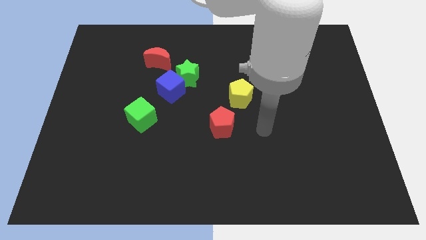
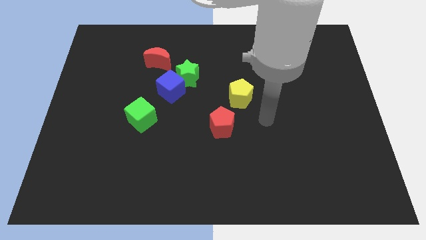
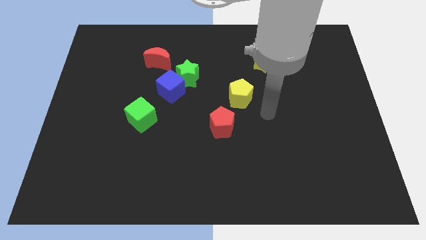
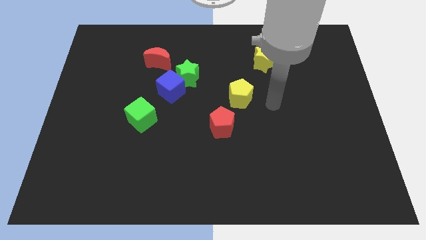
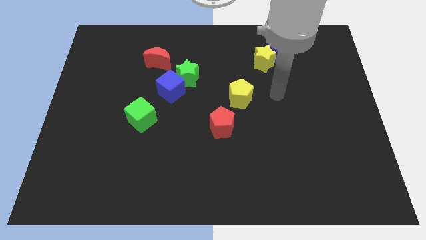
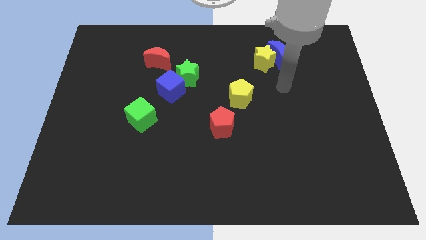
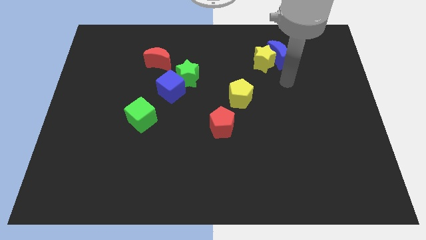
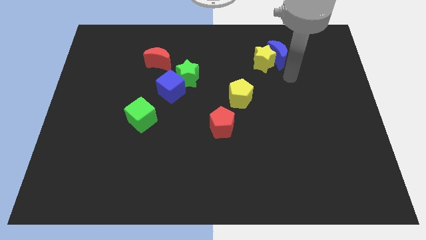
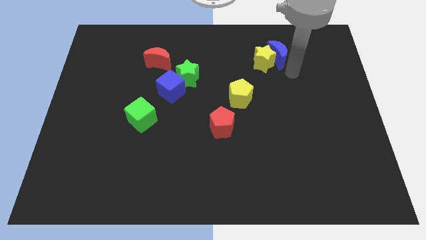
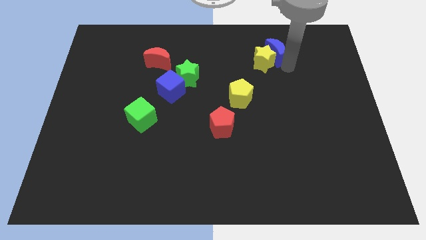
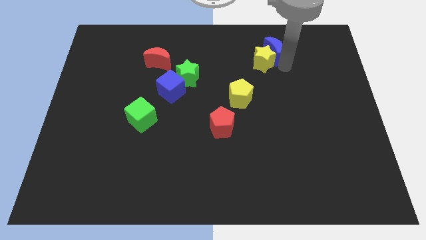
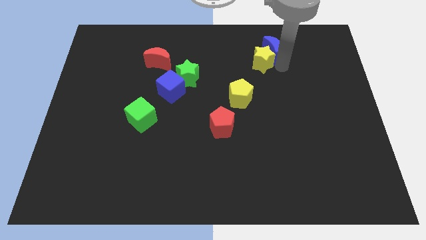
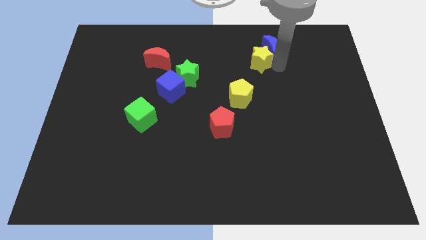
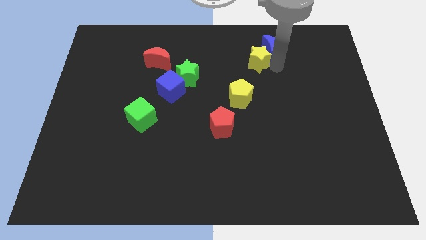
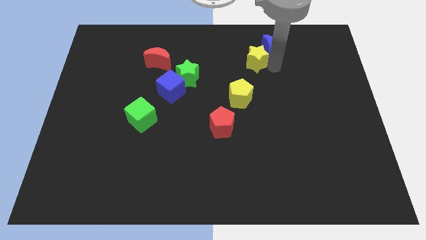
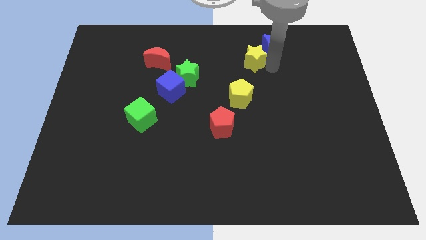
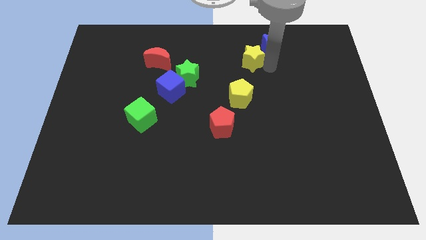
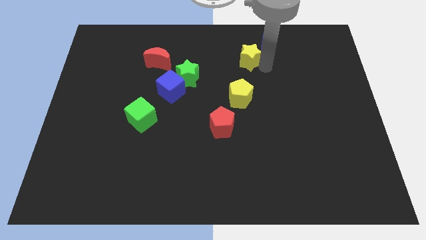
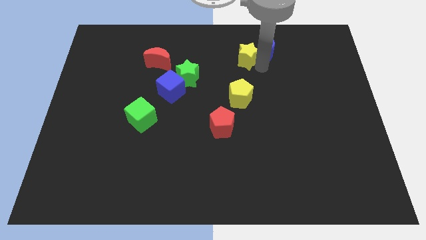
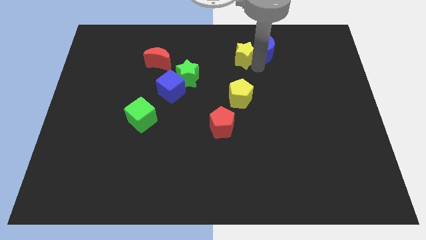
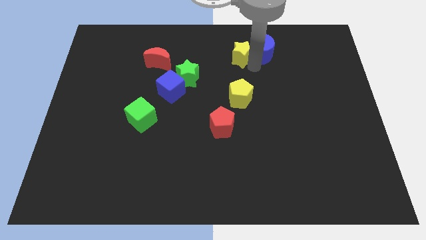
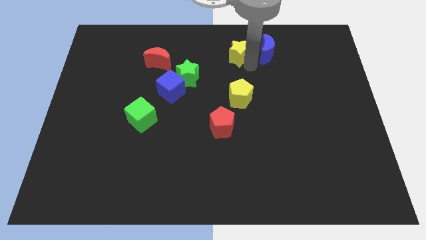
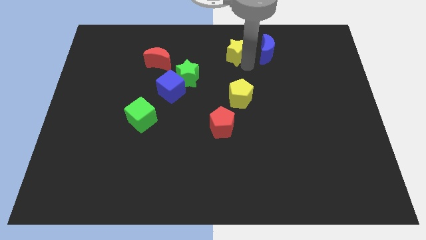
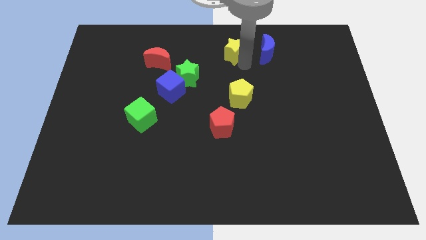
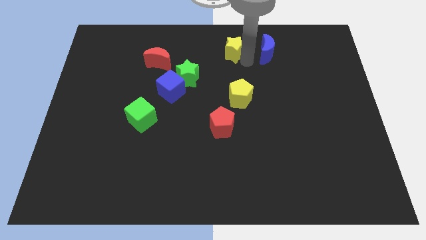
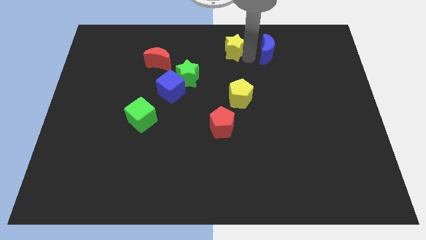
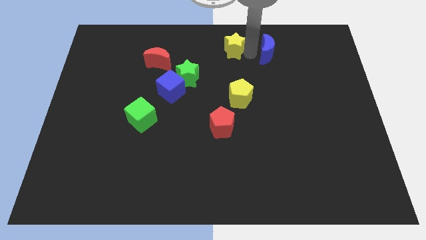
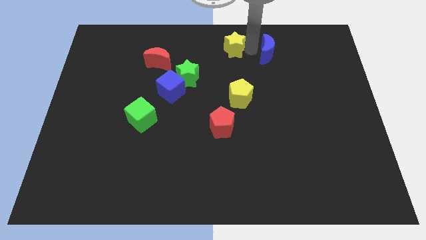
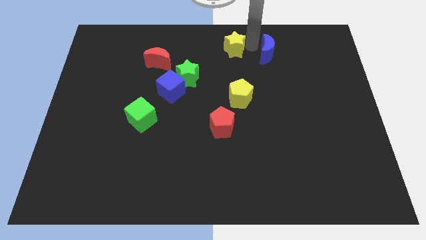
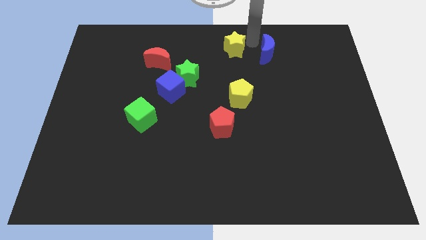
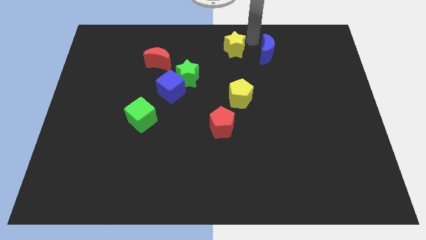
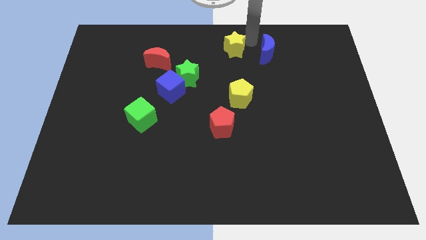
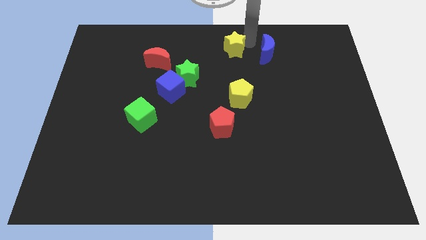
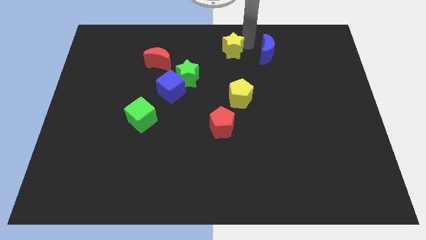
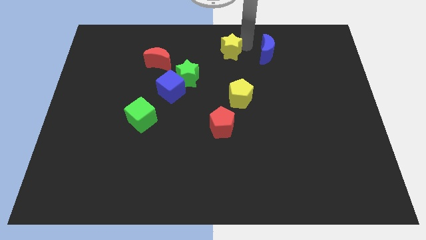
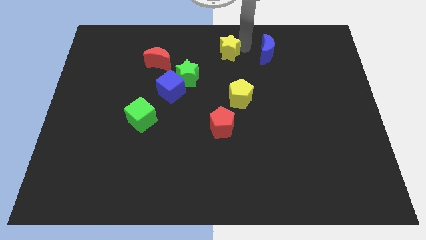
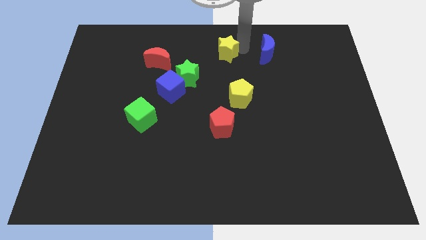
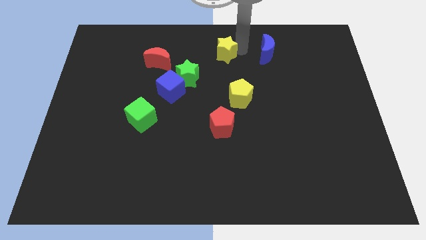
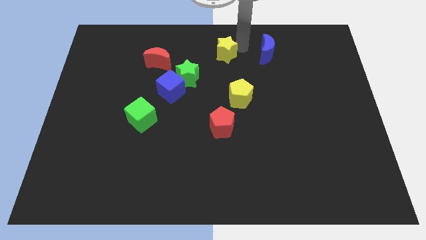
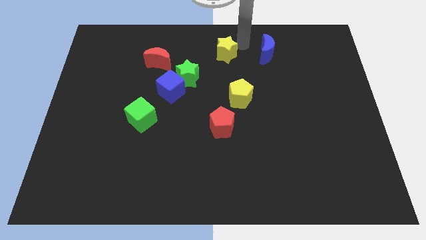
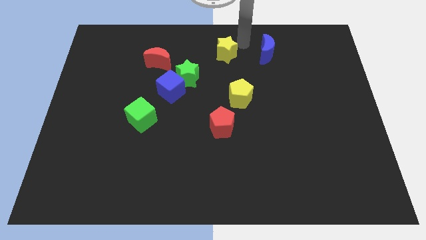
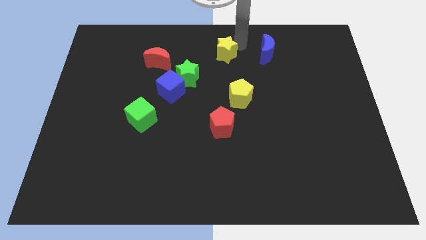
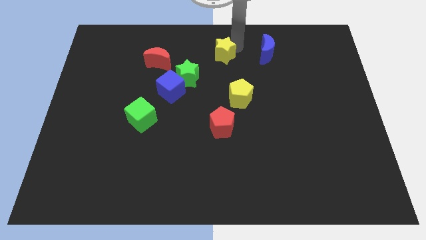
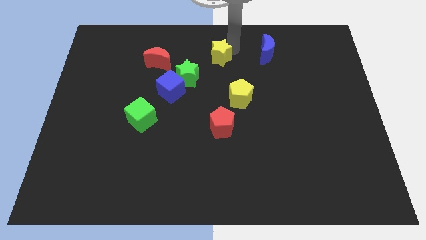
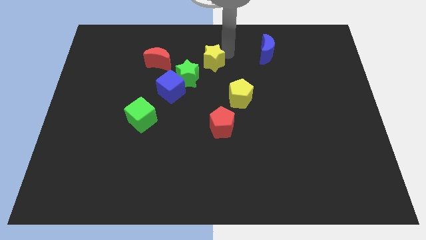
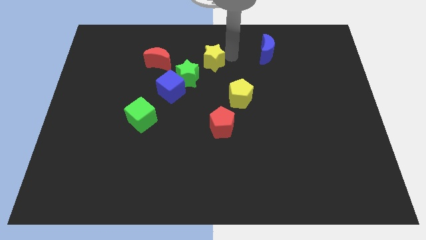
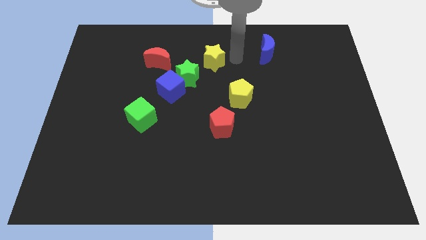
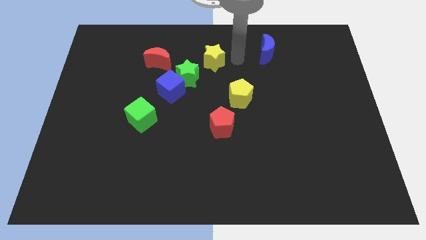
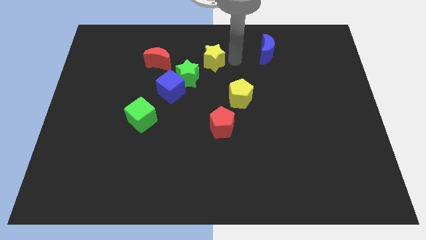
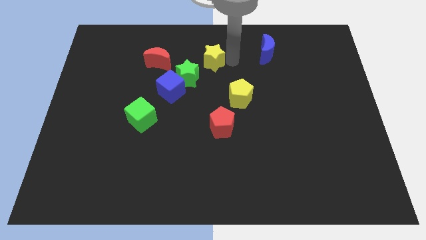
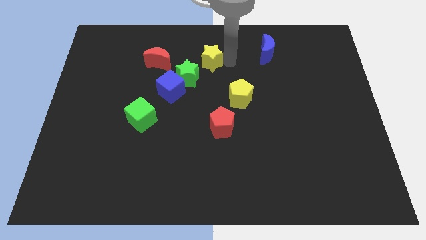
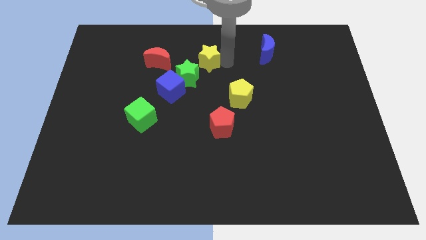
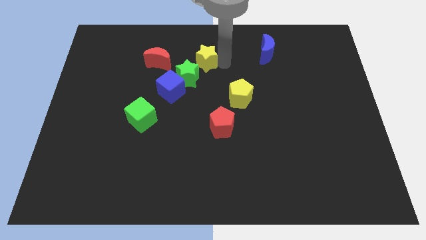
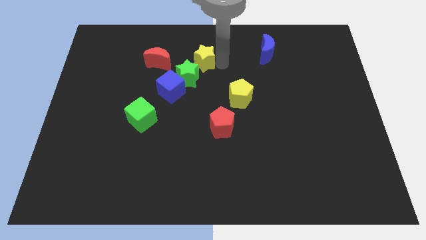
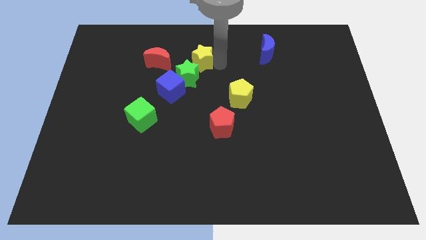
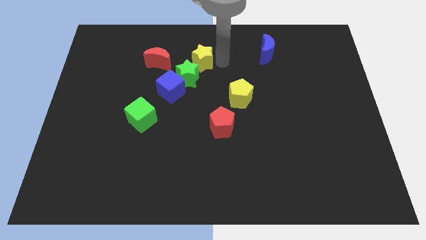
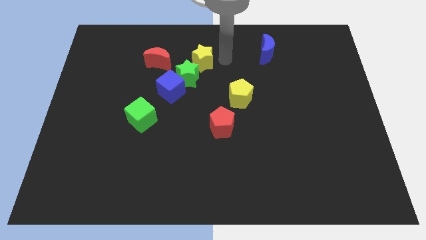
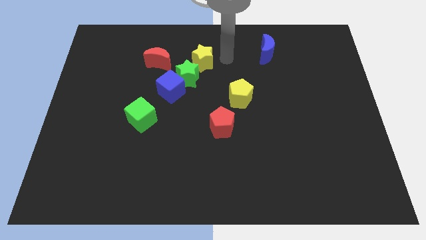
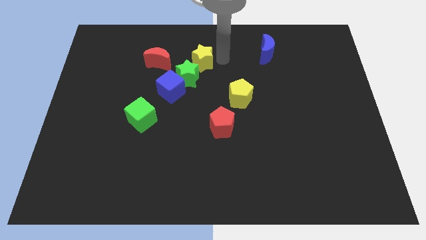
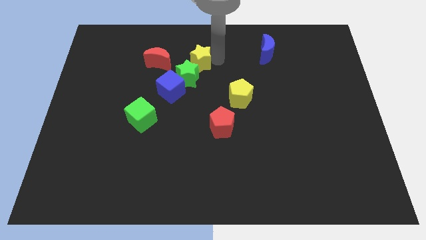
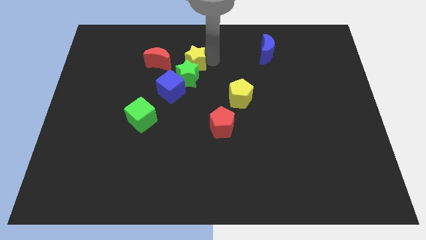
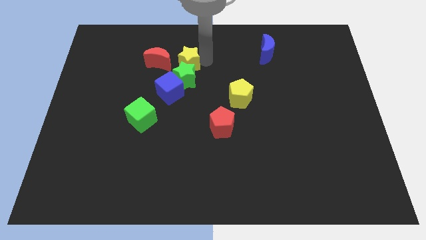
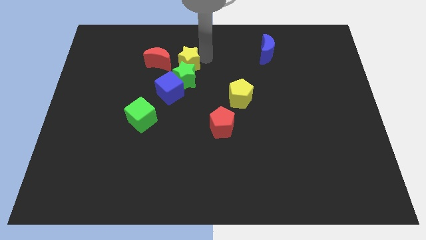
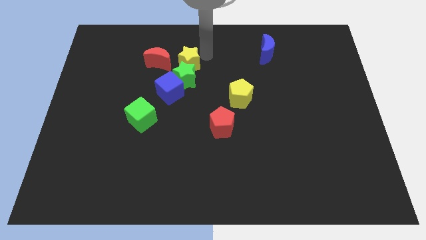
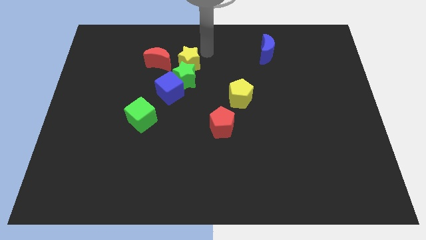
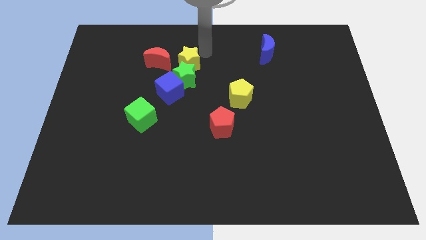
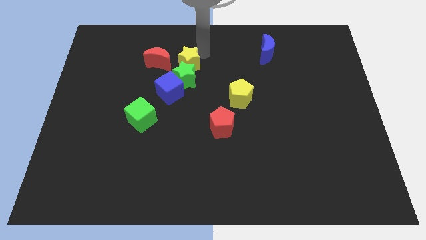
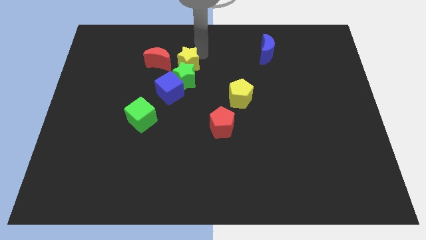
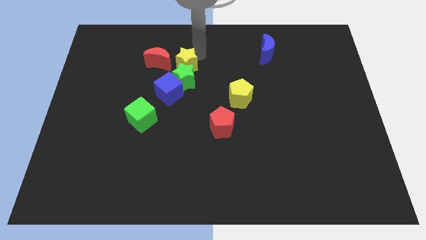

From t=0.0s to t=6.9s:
move the yellow star to the left

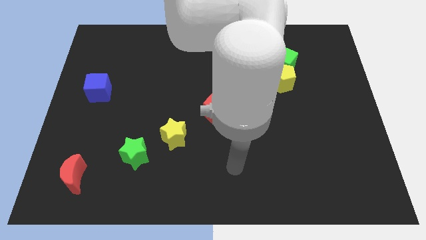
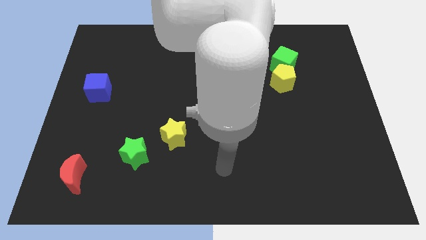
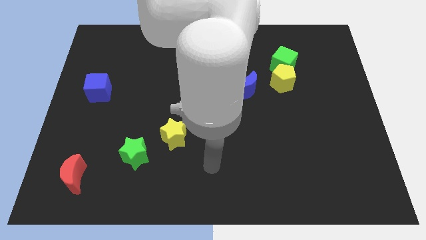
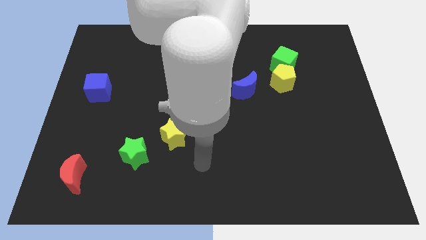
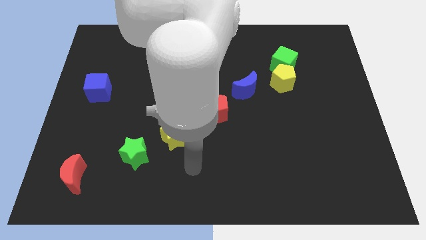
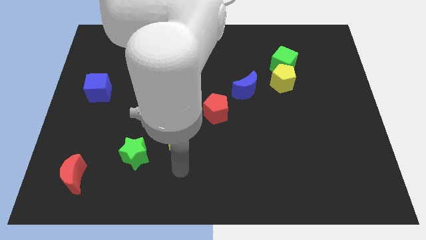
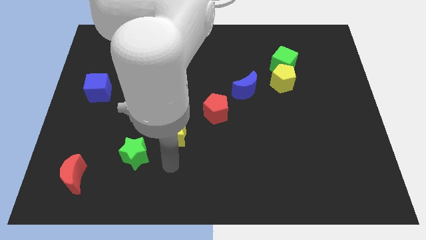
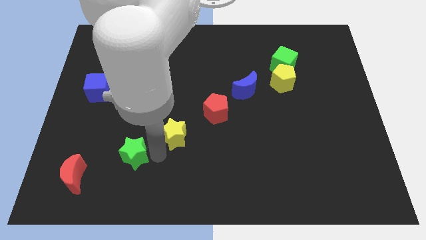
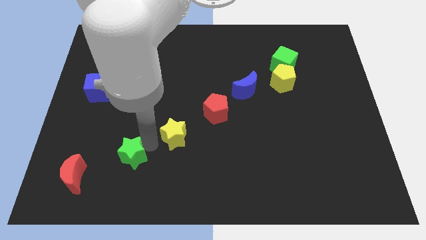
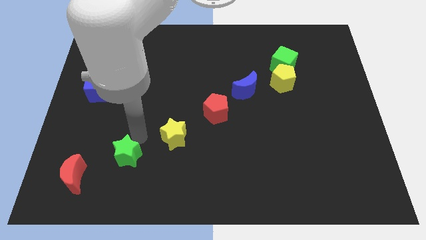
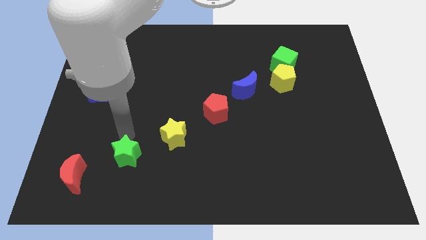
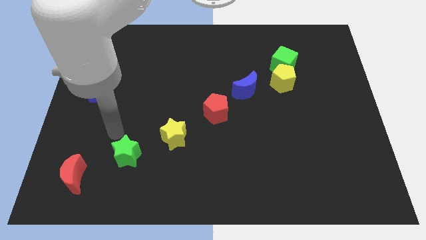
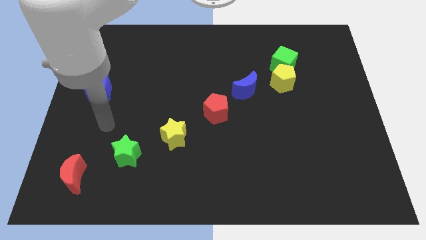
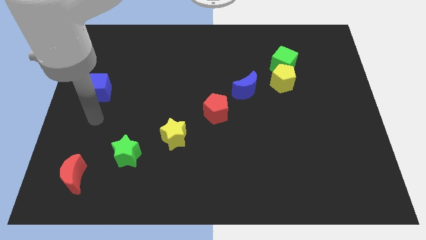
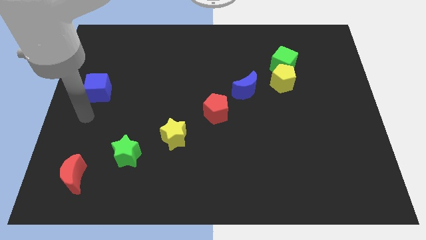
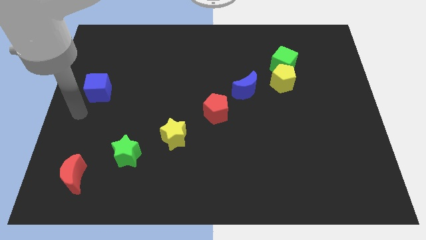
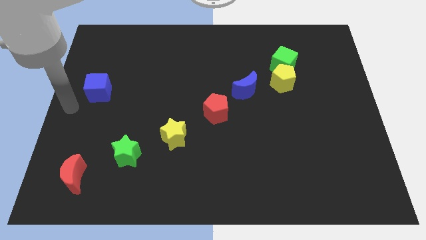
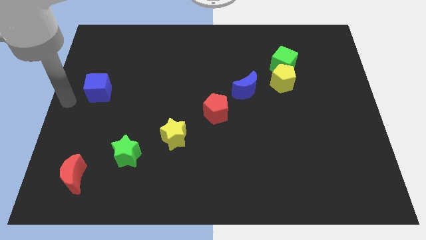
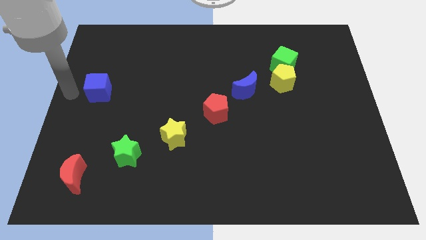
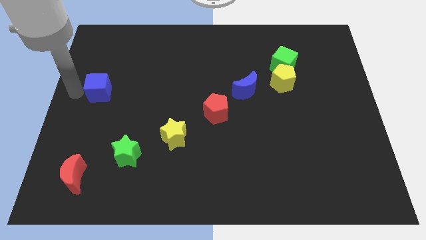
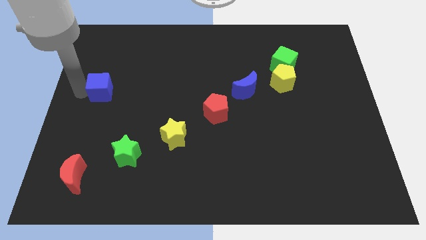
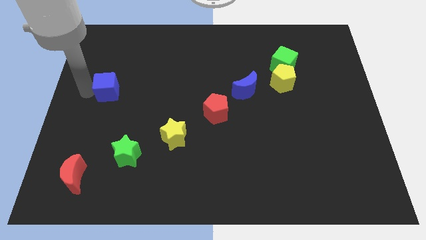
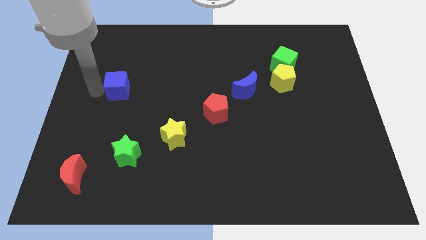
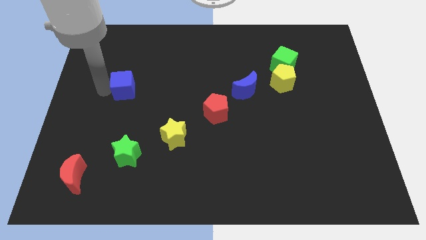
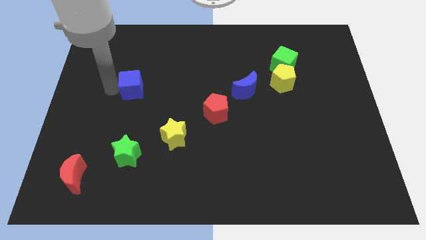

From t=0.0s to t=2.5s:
push the blue cube somewhat right
